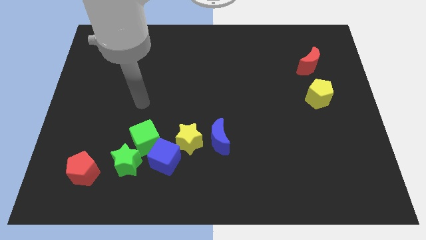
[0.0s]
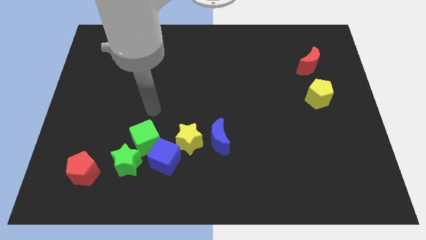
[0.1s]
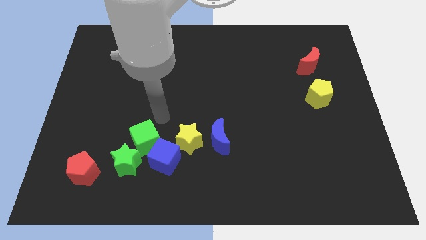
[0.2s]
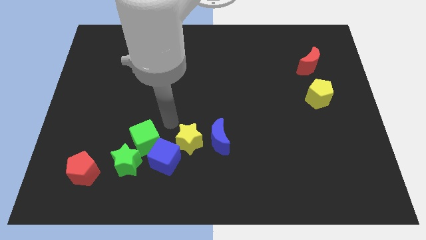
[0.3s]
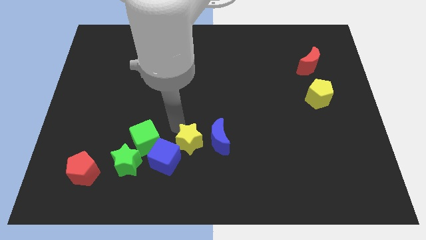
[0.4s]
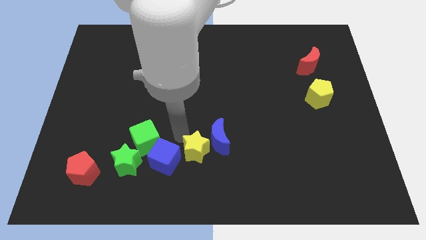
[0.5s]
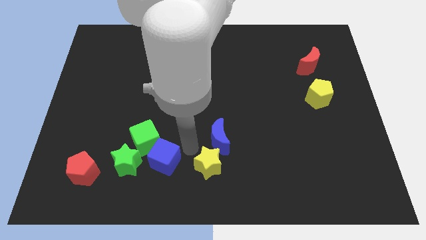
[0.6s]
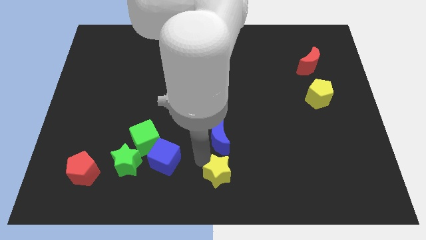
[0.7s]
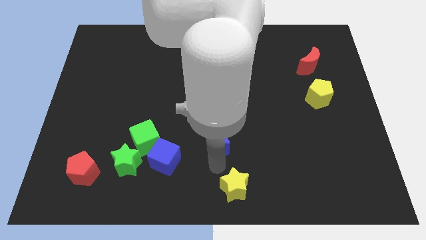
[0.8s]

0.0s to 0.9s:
separate the blue moon from the yellow star

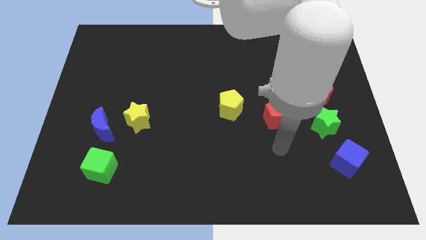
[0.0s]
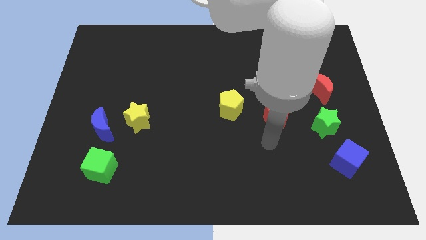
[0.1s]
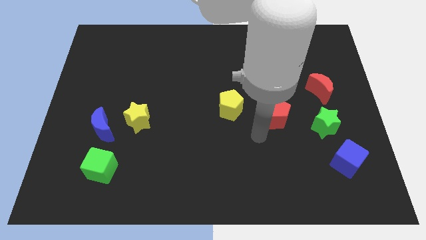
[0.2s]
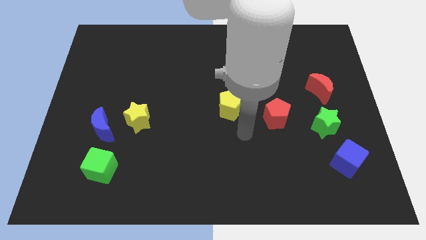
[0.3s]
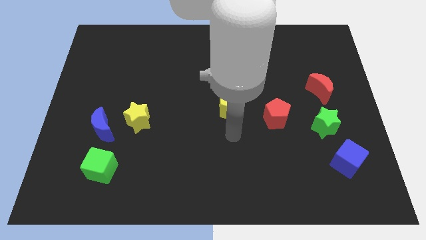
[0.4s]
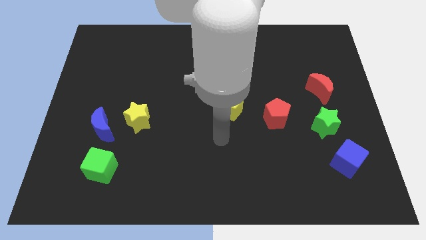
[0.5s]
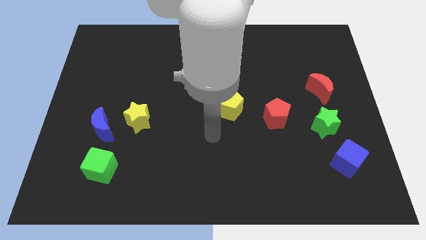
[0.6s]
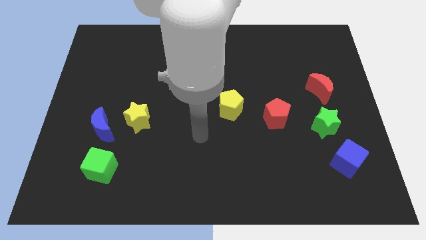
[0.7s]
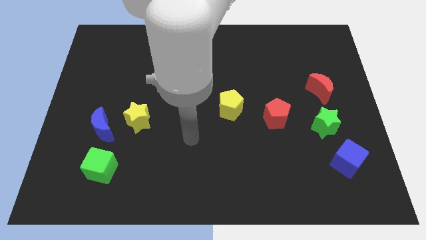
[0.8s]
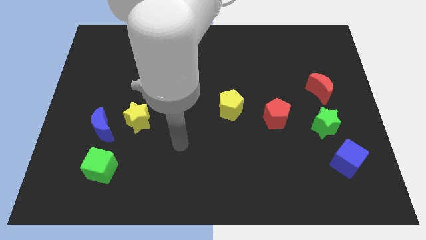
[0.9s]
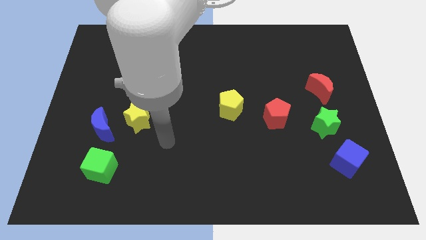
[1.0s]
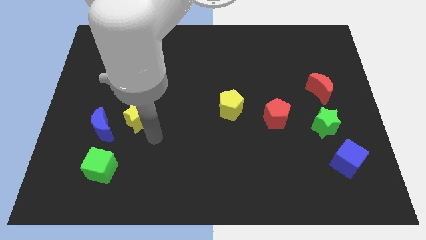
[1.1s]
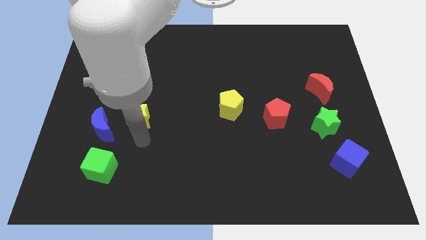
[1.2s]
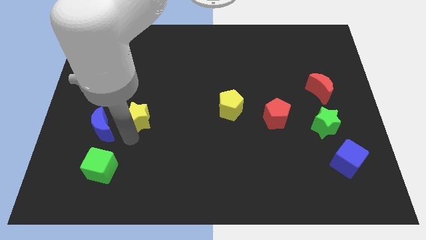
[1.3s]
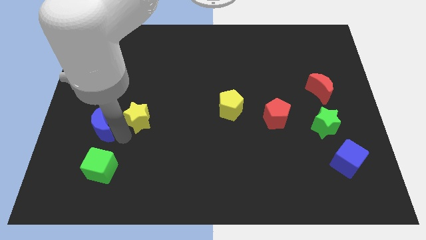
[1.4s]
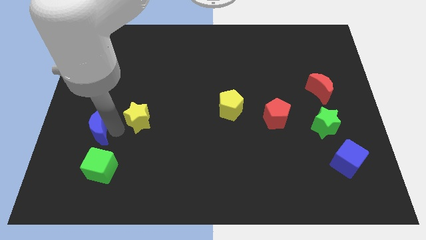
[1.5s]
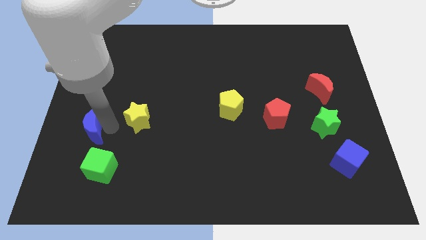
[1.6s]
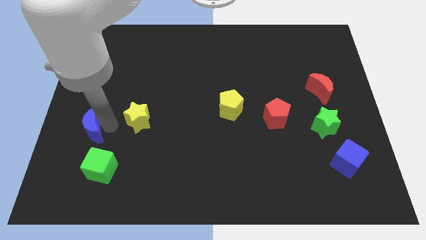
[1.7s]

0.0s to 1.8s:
pull the yellow star apart from the blue moon

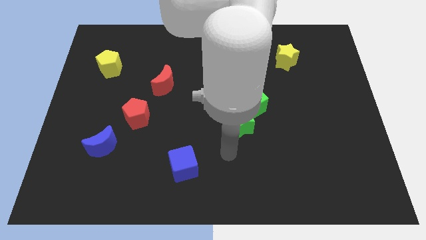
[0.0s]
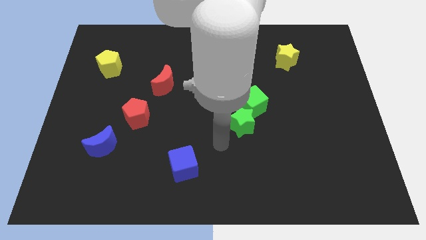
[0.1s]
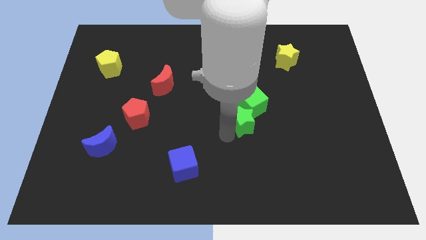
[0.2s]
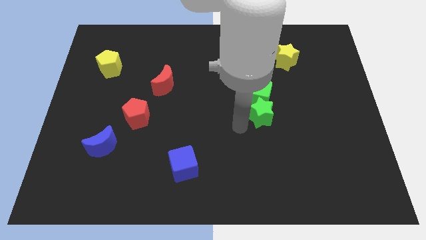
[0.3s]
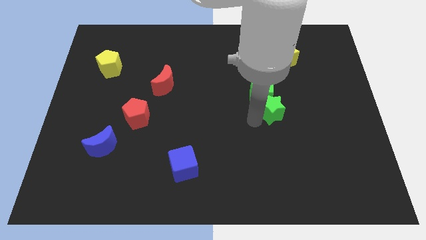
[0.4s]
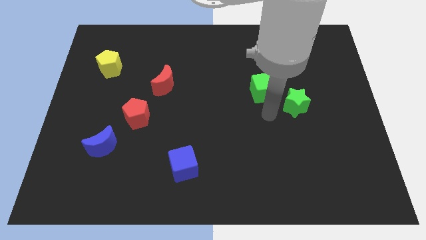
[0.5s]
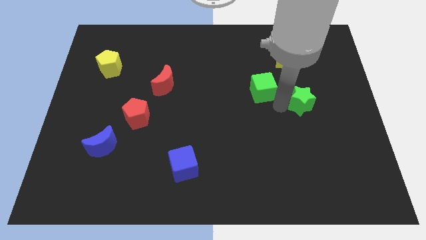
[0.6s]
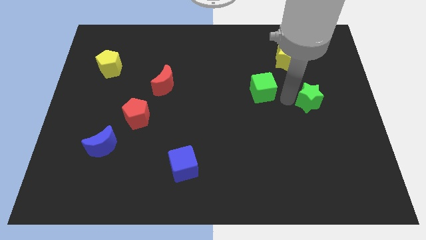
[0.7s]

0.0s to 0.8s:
move the green cube away from the green star

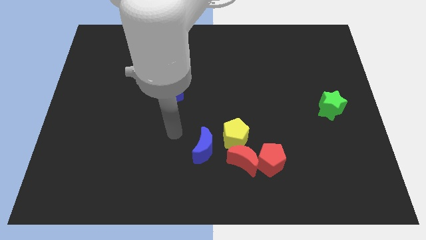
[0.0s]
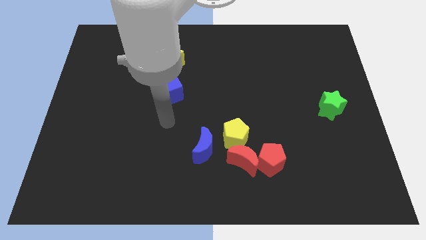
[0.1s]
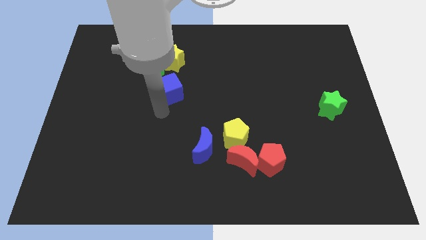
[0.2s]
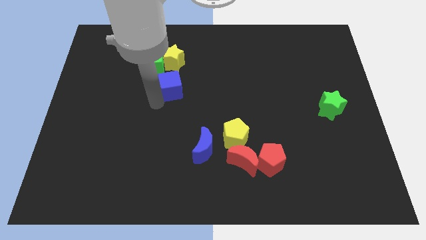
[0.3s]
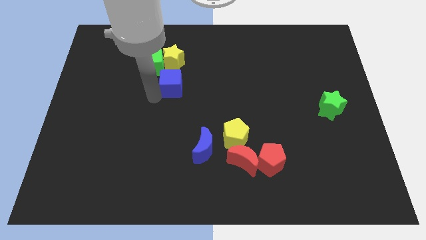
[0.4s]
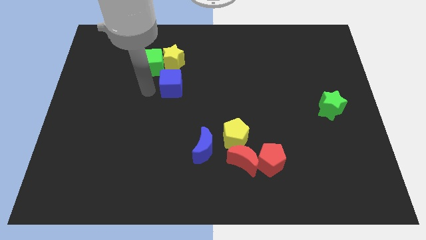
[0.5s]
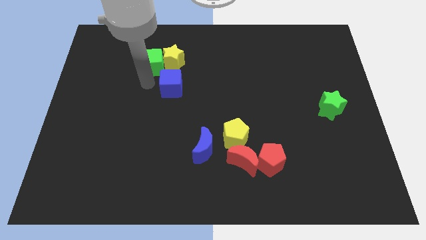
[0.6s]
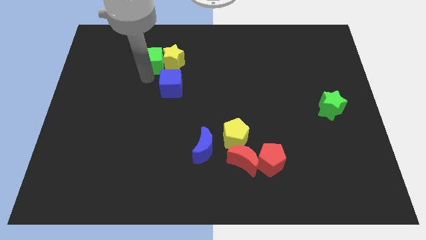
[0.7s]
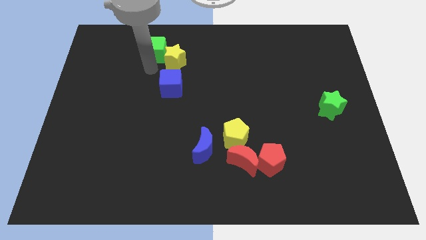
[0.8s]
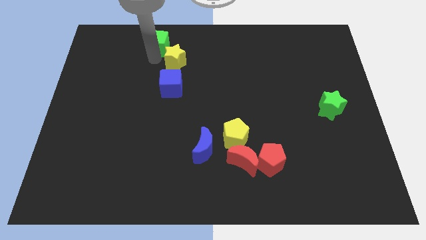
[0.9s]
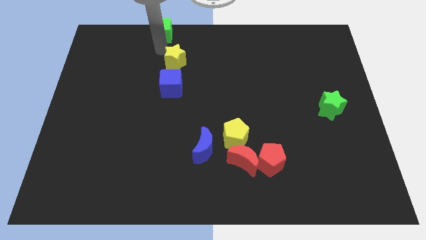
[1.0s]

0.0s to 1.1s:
move the yellow star away from the green cube

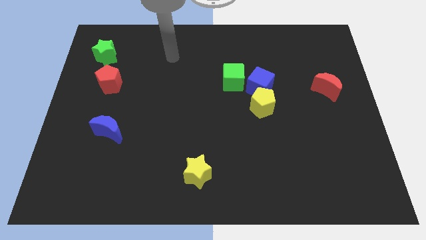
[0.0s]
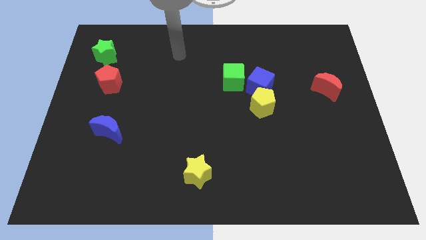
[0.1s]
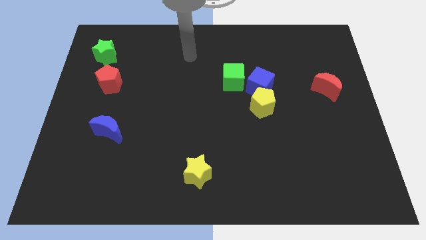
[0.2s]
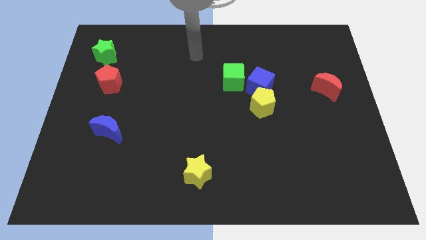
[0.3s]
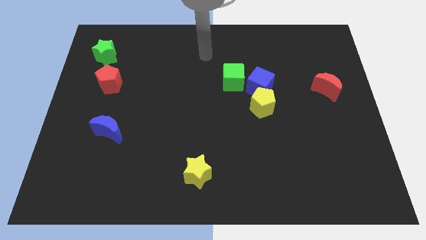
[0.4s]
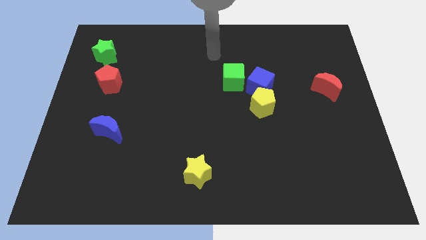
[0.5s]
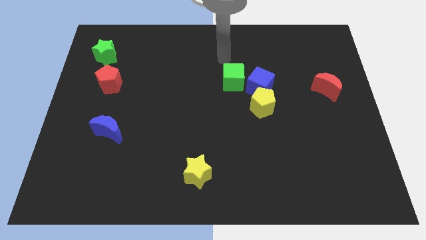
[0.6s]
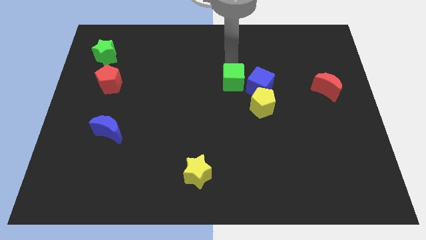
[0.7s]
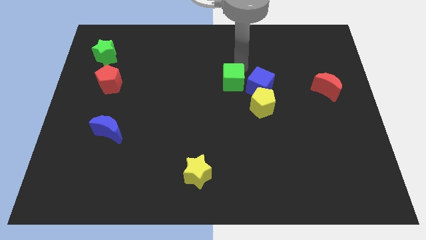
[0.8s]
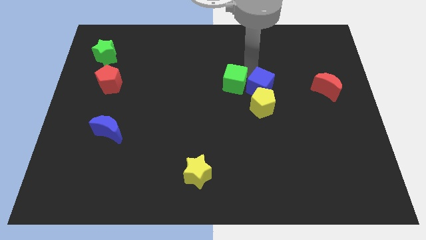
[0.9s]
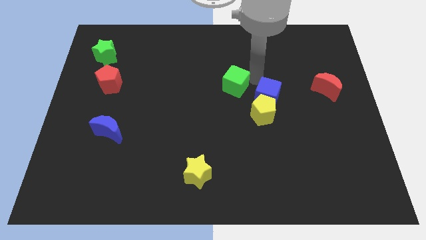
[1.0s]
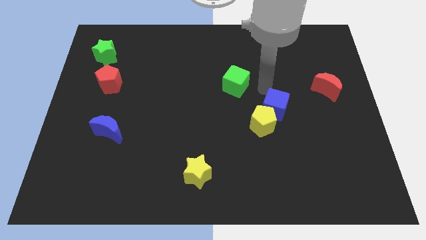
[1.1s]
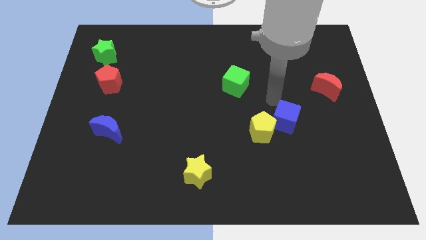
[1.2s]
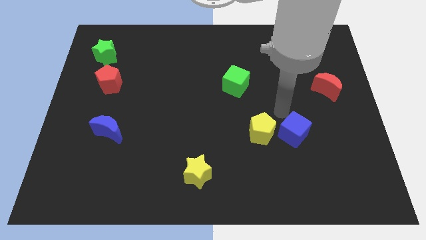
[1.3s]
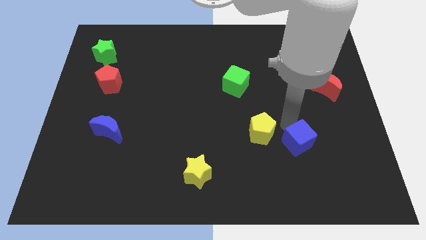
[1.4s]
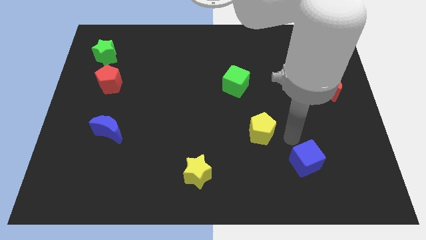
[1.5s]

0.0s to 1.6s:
move the yellow pentagon away from the blue cube

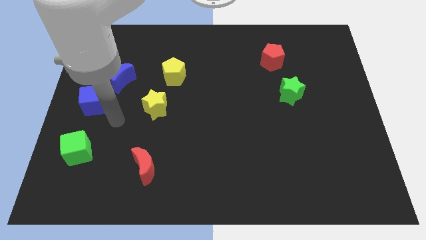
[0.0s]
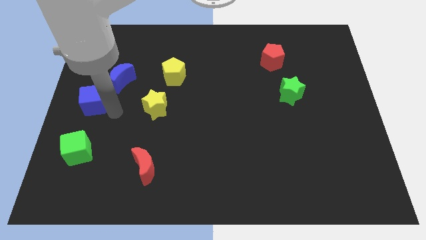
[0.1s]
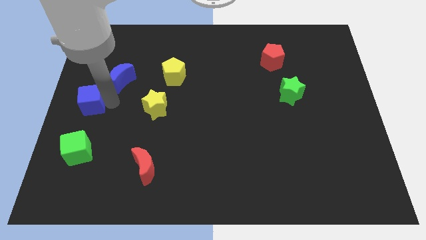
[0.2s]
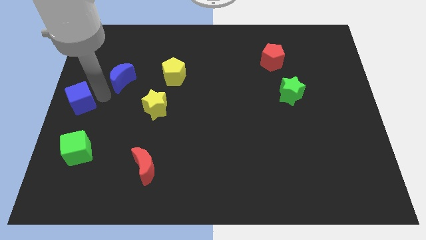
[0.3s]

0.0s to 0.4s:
pull the blue moon apart from the blue cube

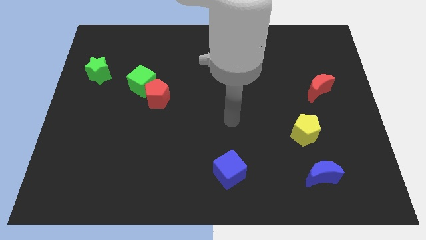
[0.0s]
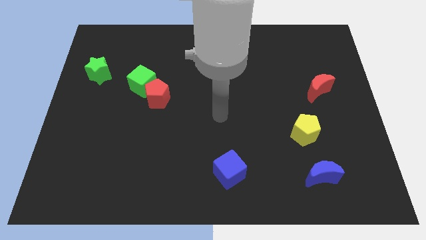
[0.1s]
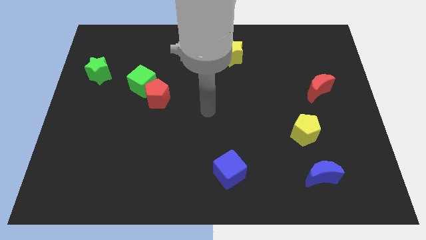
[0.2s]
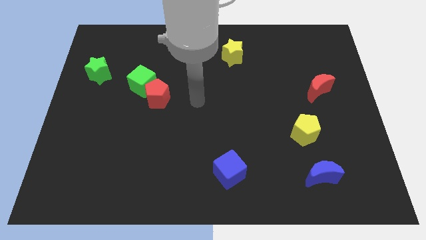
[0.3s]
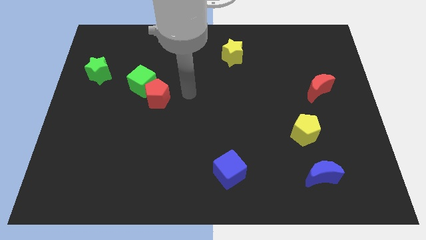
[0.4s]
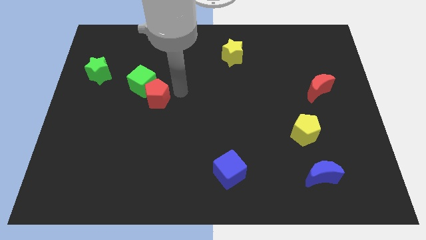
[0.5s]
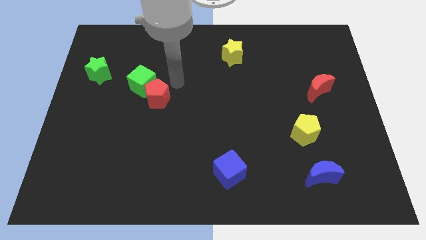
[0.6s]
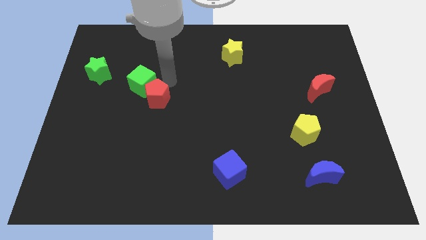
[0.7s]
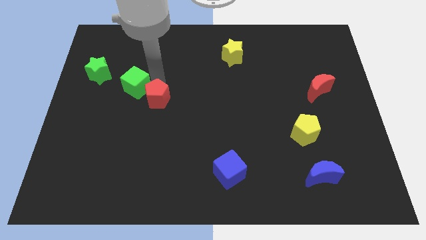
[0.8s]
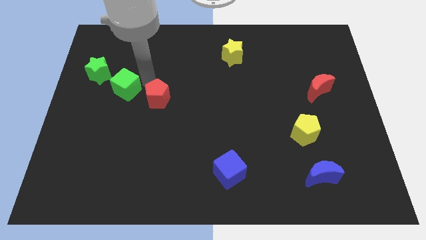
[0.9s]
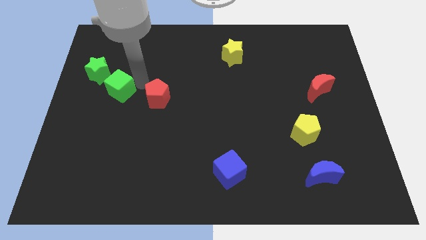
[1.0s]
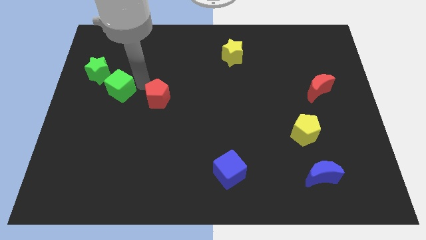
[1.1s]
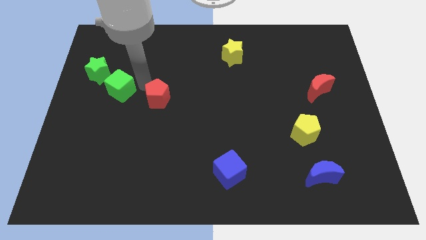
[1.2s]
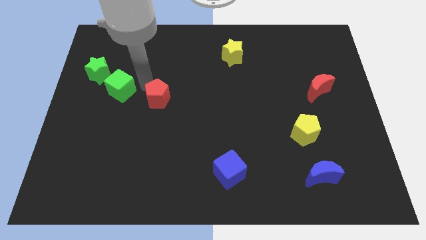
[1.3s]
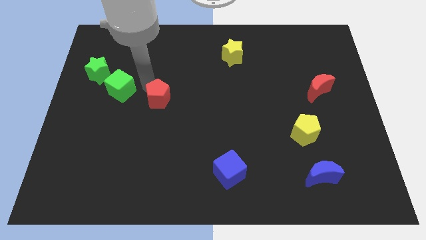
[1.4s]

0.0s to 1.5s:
pull the red pentagon apart from the green cube

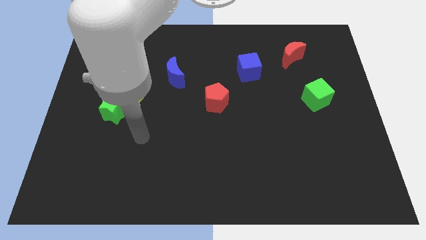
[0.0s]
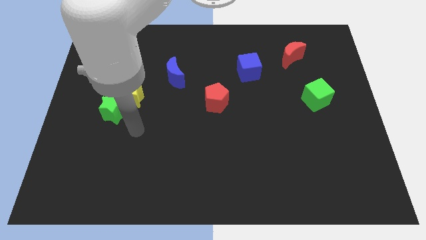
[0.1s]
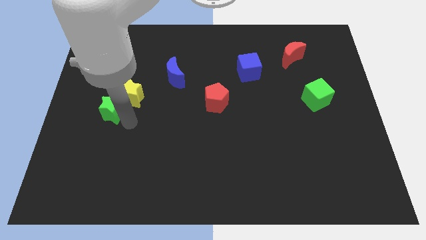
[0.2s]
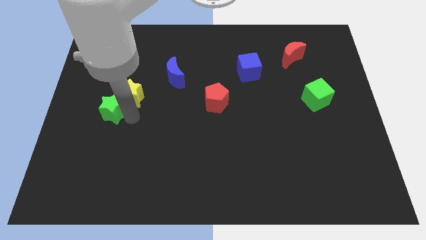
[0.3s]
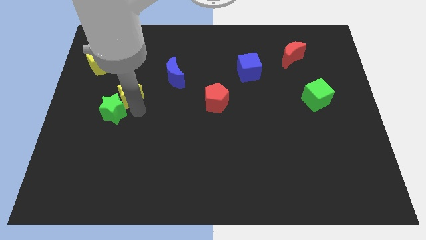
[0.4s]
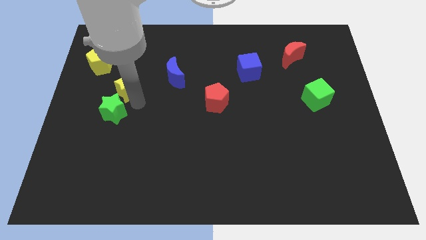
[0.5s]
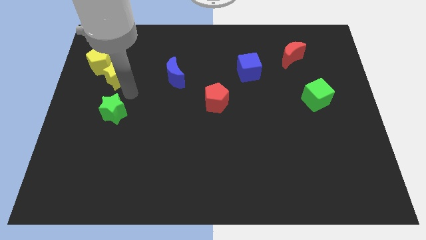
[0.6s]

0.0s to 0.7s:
separate the green star from the yellow star

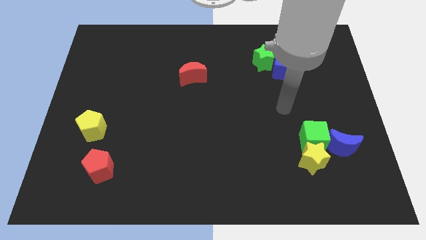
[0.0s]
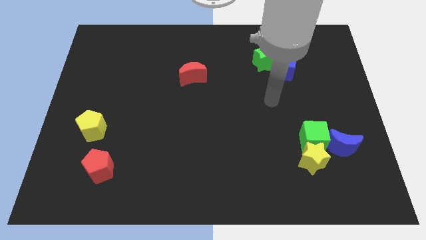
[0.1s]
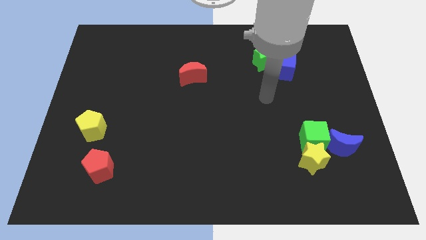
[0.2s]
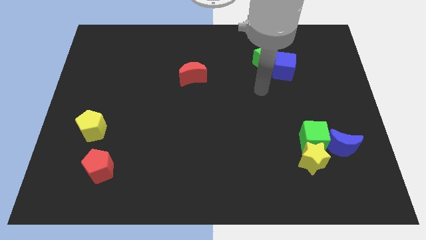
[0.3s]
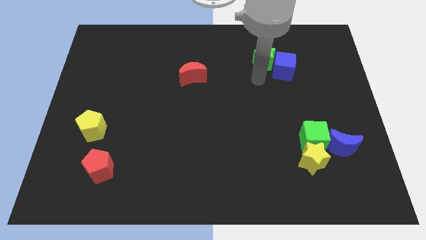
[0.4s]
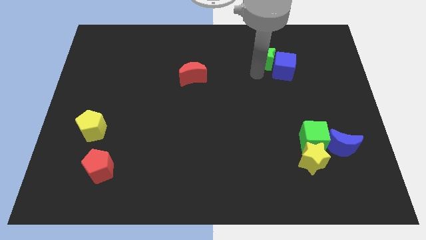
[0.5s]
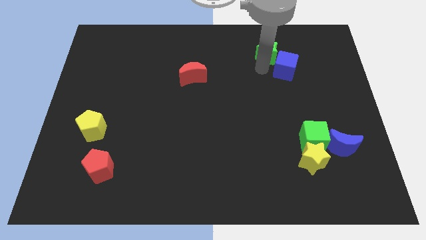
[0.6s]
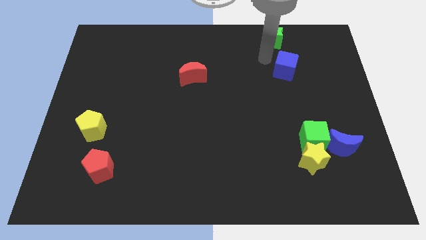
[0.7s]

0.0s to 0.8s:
pull the blue cube apart from the green star
